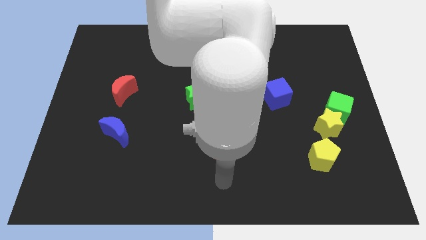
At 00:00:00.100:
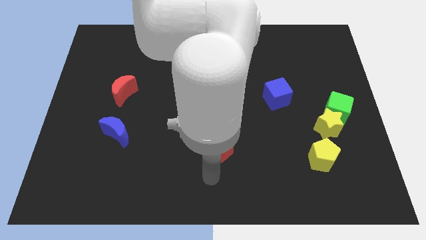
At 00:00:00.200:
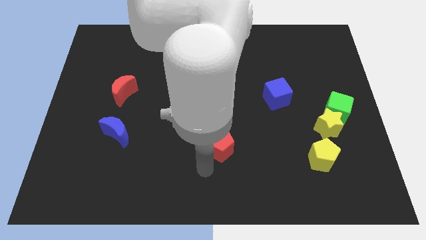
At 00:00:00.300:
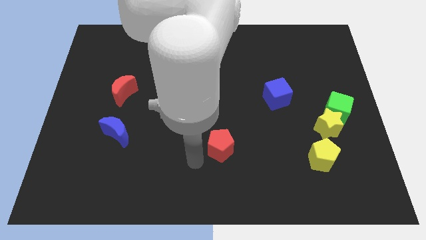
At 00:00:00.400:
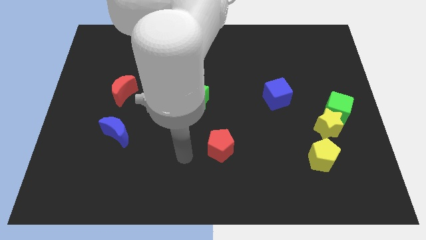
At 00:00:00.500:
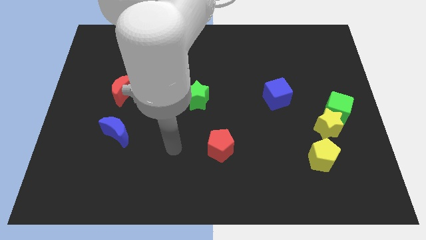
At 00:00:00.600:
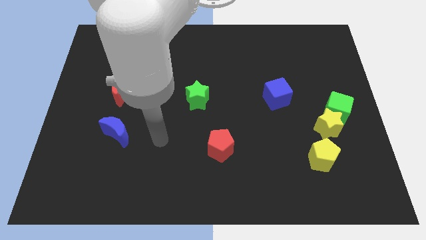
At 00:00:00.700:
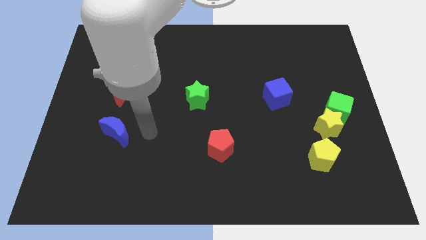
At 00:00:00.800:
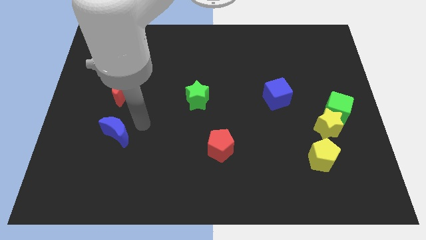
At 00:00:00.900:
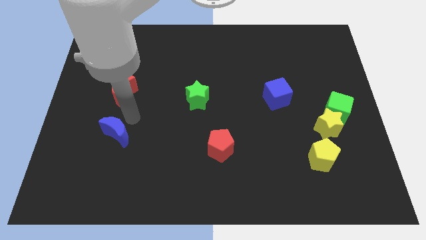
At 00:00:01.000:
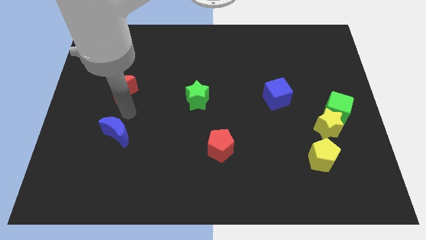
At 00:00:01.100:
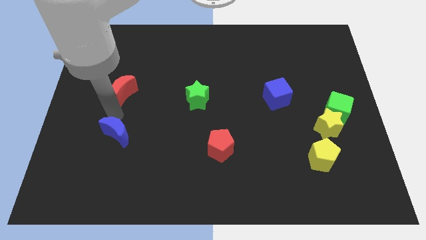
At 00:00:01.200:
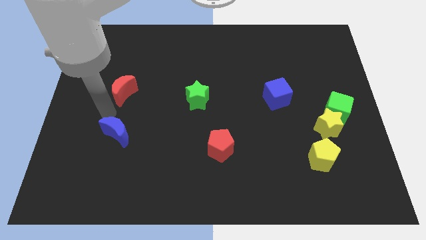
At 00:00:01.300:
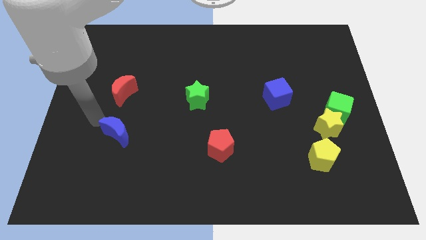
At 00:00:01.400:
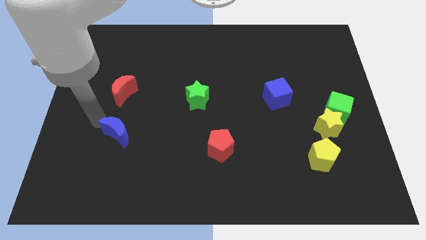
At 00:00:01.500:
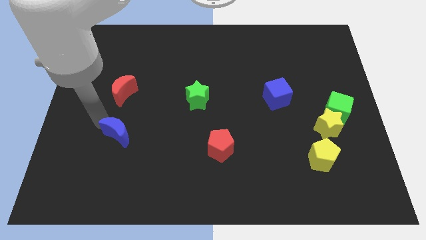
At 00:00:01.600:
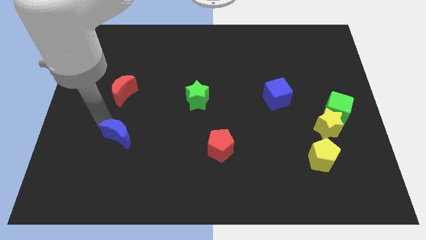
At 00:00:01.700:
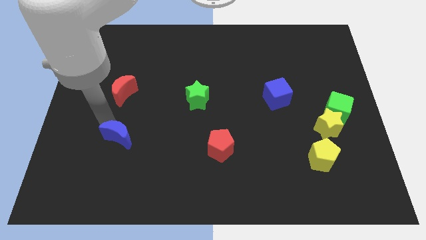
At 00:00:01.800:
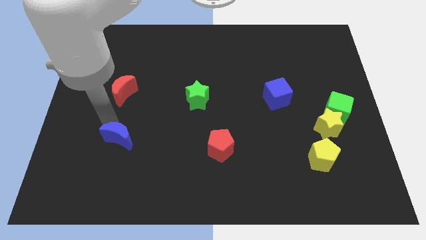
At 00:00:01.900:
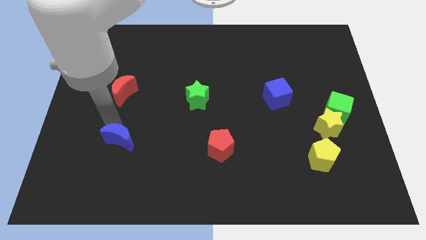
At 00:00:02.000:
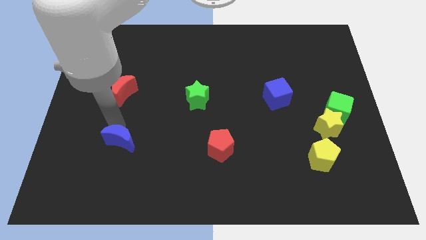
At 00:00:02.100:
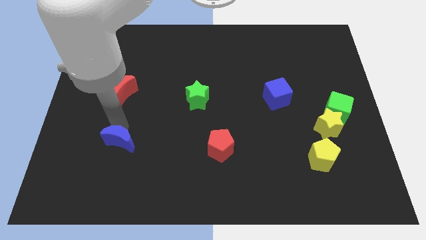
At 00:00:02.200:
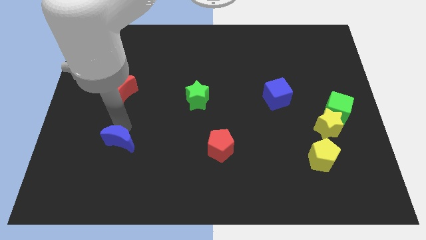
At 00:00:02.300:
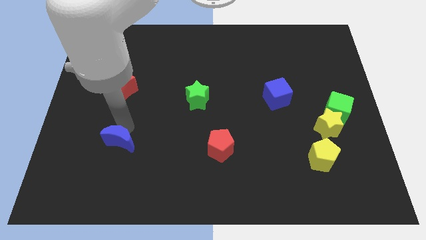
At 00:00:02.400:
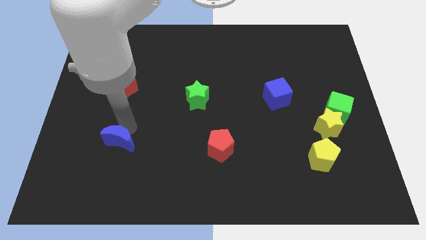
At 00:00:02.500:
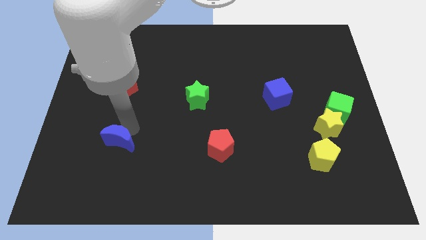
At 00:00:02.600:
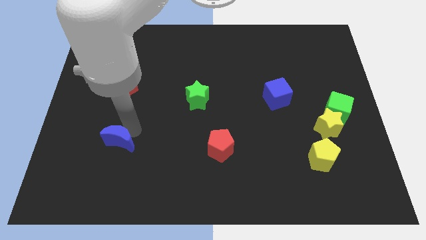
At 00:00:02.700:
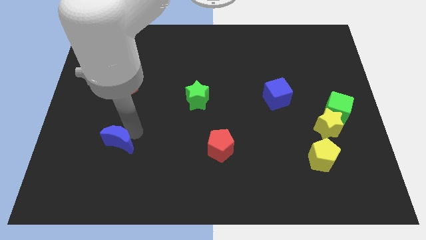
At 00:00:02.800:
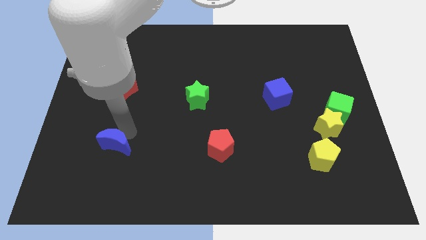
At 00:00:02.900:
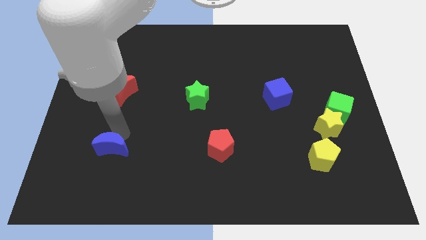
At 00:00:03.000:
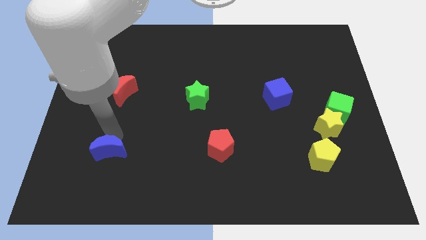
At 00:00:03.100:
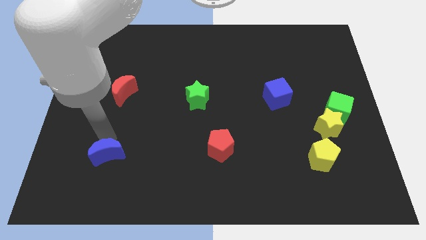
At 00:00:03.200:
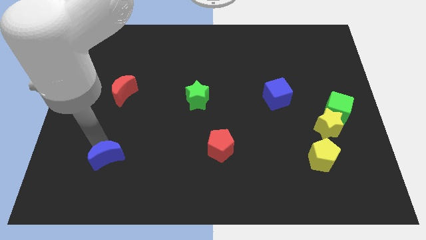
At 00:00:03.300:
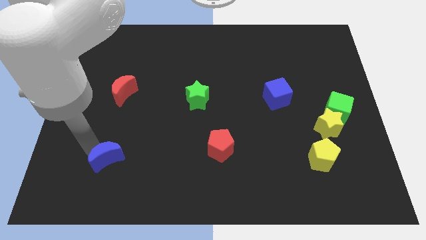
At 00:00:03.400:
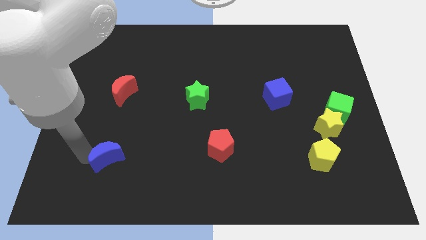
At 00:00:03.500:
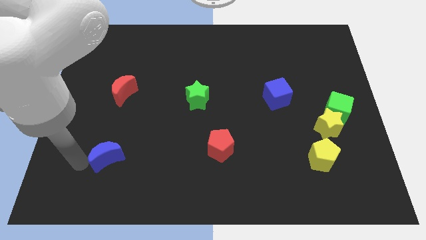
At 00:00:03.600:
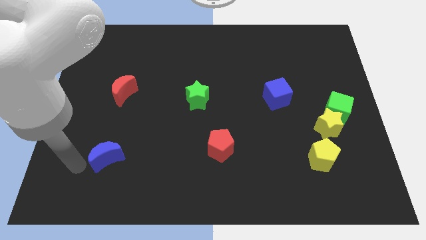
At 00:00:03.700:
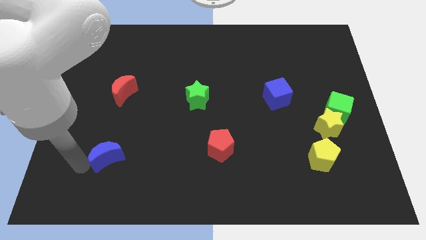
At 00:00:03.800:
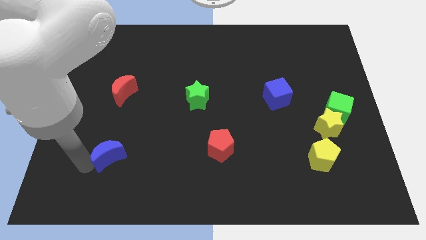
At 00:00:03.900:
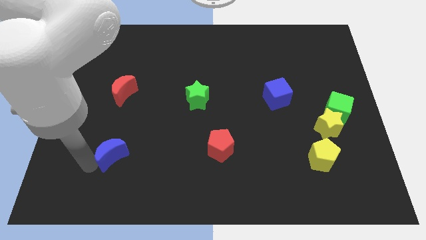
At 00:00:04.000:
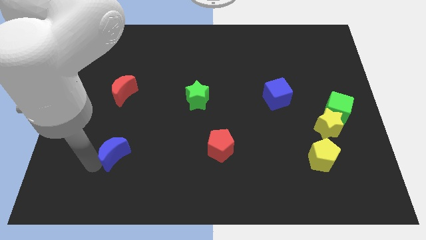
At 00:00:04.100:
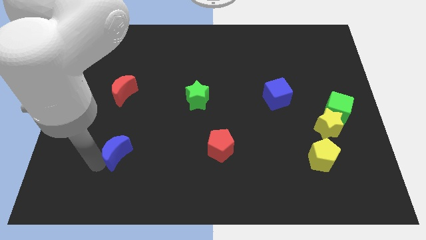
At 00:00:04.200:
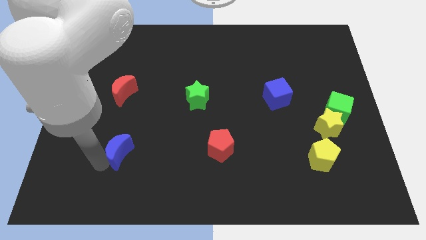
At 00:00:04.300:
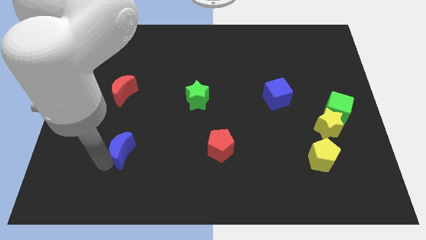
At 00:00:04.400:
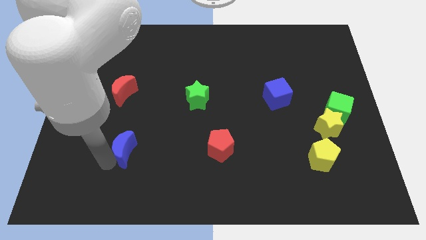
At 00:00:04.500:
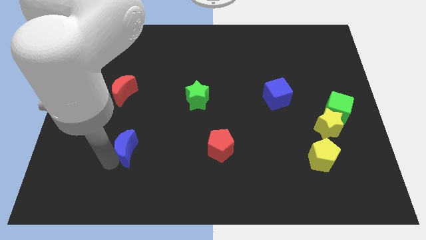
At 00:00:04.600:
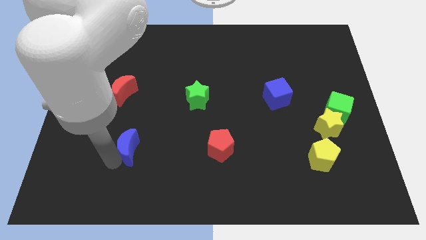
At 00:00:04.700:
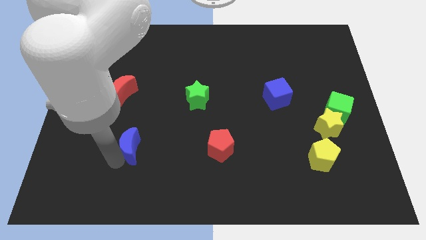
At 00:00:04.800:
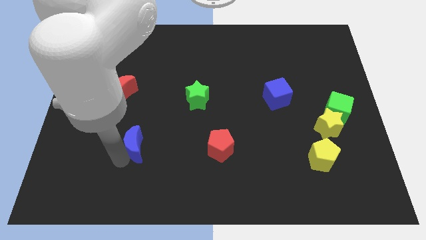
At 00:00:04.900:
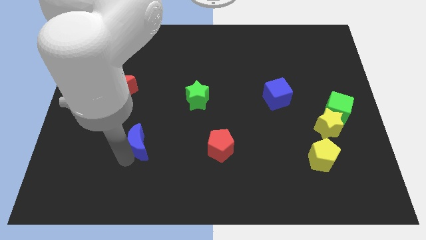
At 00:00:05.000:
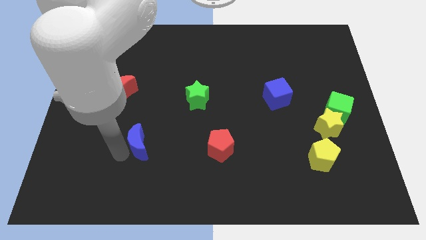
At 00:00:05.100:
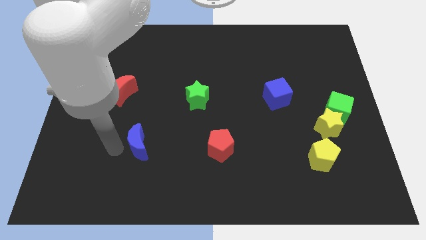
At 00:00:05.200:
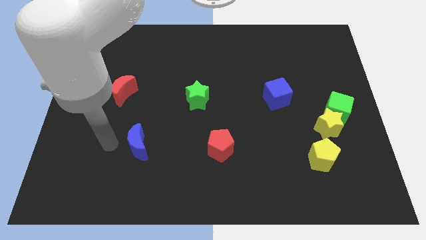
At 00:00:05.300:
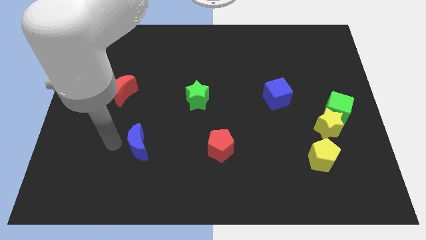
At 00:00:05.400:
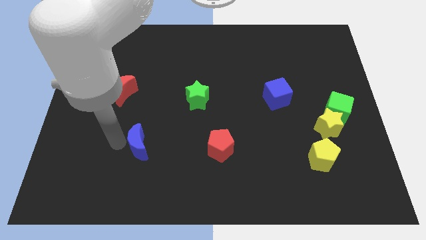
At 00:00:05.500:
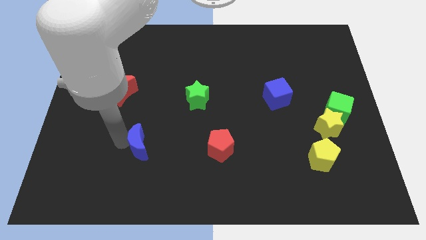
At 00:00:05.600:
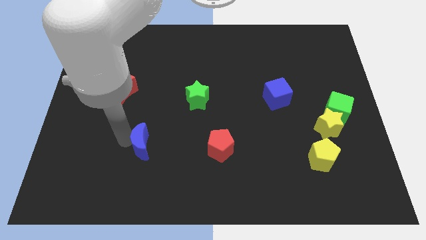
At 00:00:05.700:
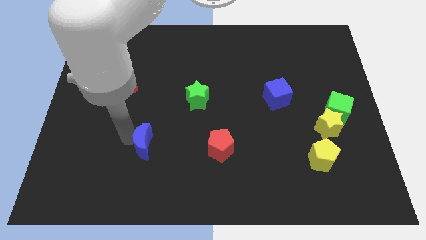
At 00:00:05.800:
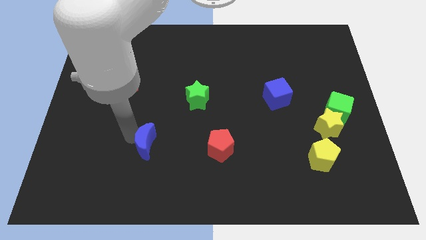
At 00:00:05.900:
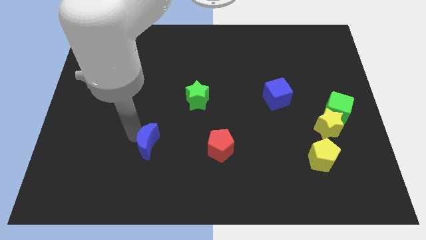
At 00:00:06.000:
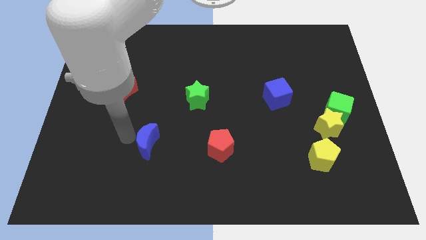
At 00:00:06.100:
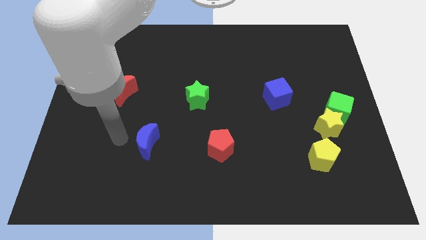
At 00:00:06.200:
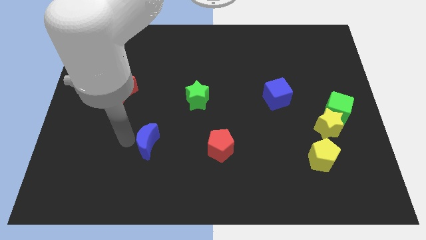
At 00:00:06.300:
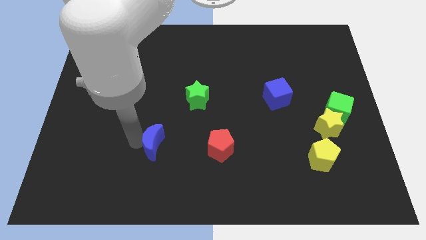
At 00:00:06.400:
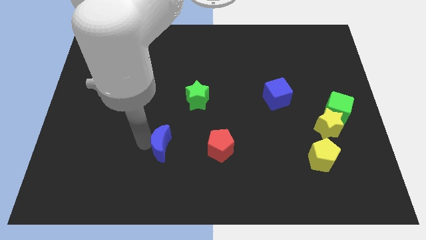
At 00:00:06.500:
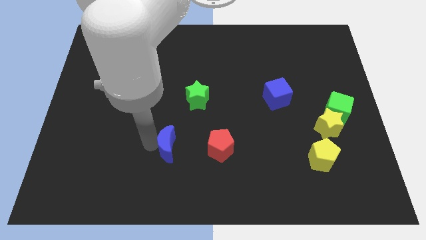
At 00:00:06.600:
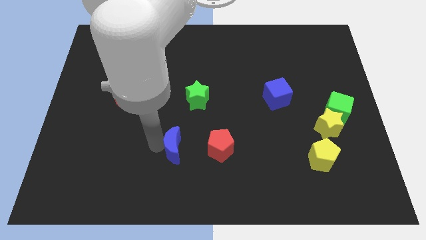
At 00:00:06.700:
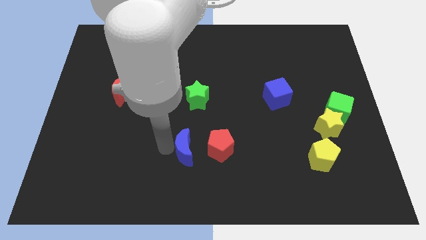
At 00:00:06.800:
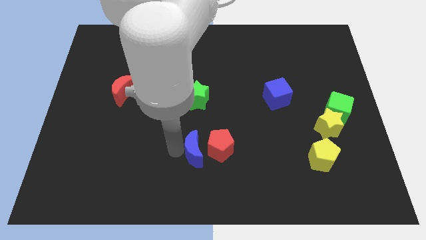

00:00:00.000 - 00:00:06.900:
slide the blue moon next to the red pentagon
